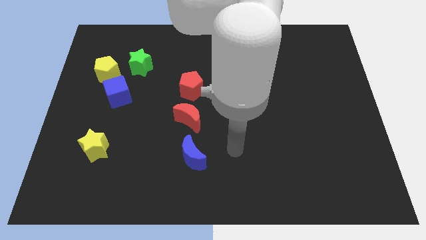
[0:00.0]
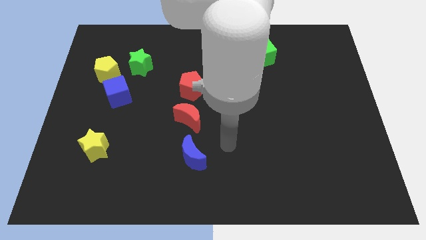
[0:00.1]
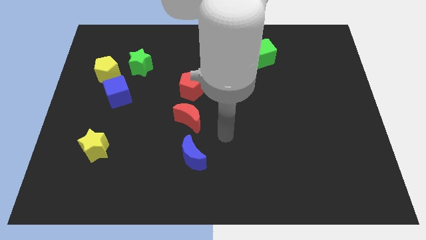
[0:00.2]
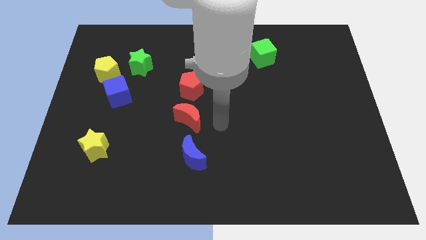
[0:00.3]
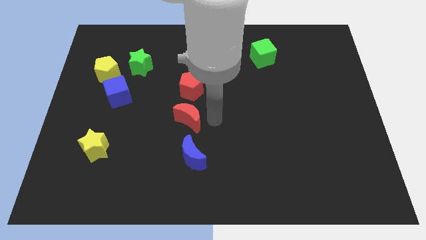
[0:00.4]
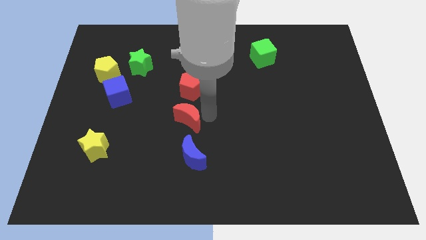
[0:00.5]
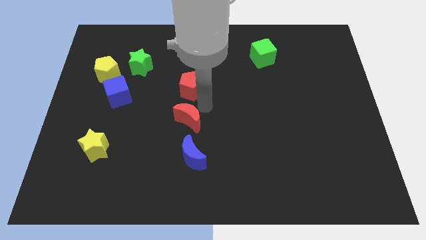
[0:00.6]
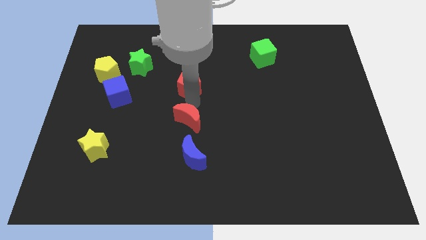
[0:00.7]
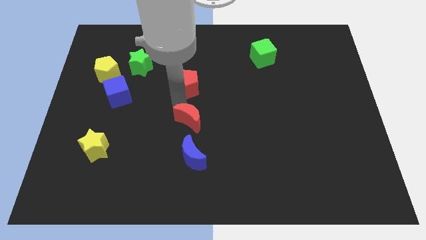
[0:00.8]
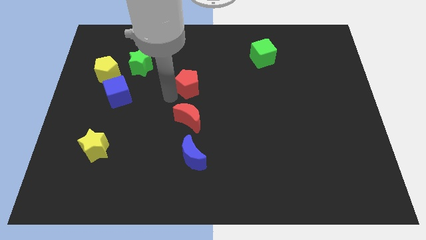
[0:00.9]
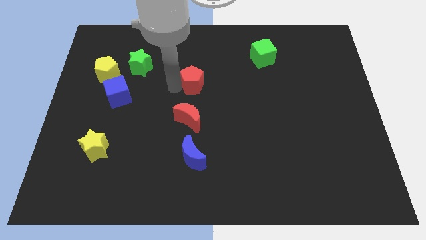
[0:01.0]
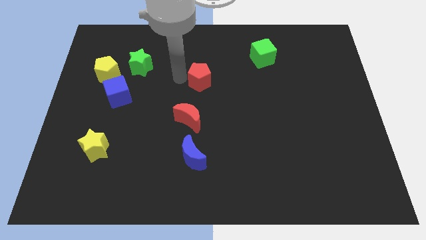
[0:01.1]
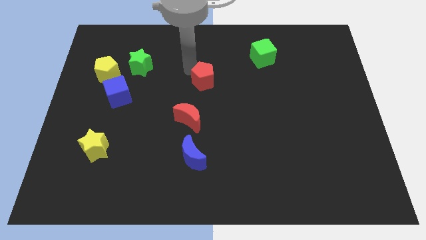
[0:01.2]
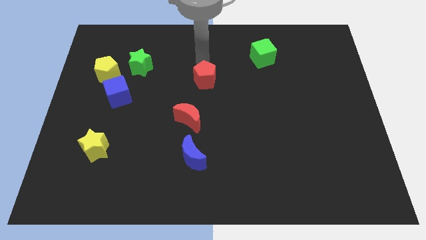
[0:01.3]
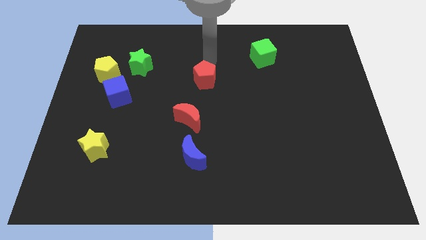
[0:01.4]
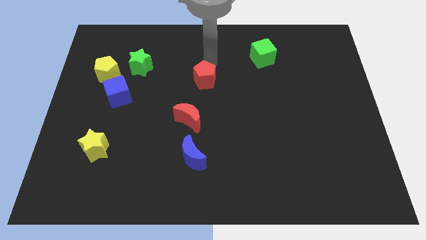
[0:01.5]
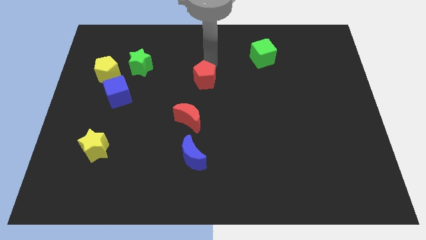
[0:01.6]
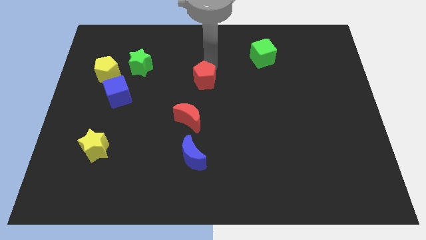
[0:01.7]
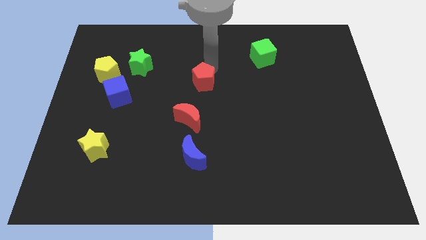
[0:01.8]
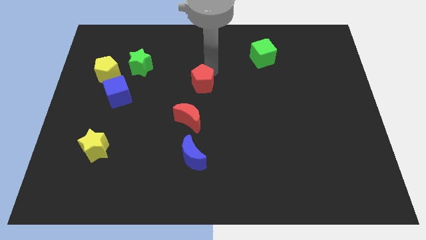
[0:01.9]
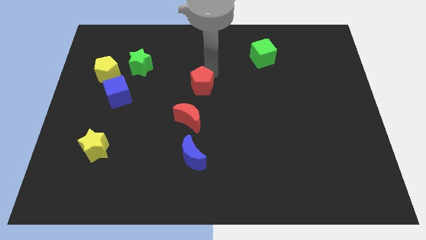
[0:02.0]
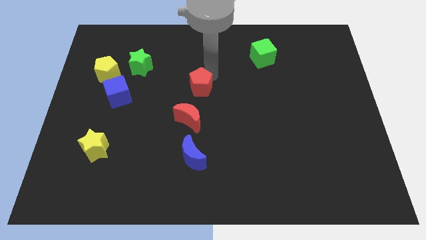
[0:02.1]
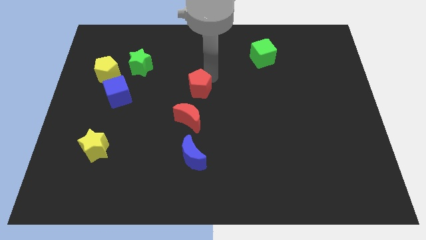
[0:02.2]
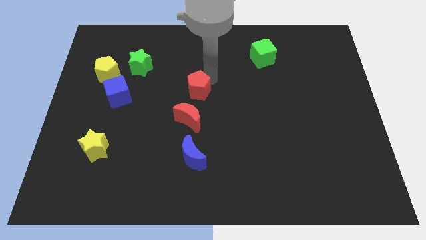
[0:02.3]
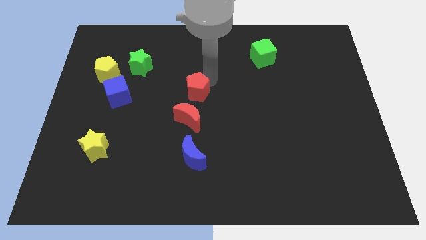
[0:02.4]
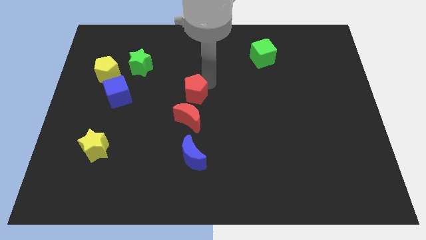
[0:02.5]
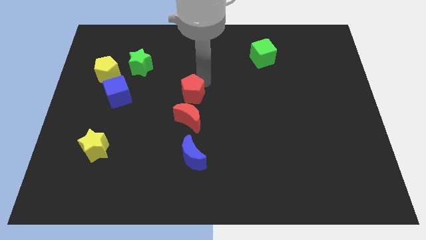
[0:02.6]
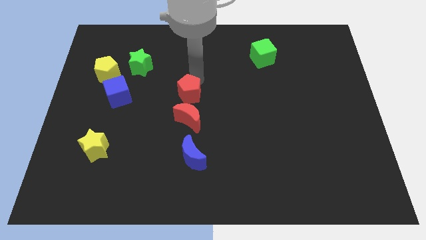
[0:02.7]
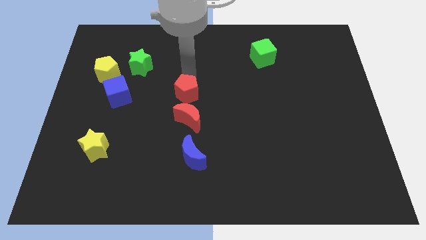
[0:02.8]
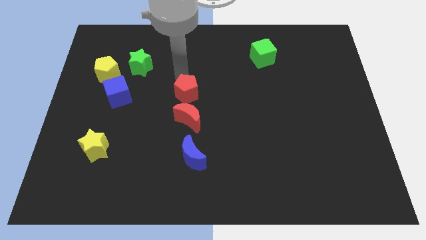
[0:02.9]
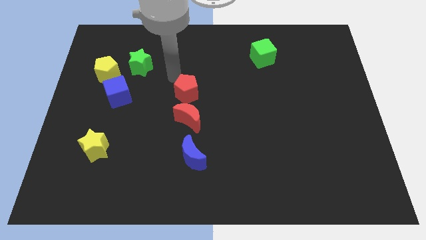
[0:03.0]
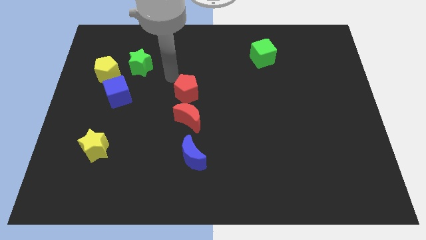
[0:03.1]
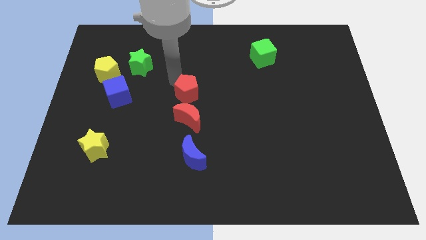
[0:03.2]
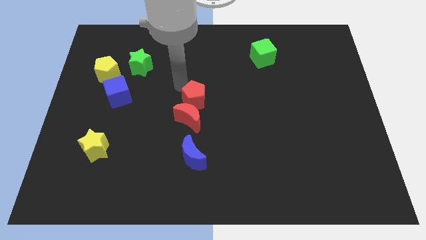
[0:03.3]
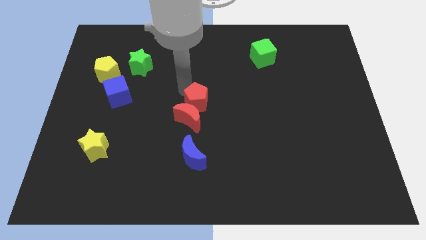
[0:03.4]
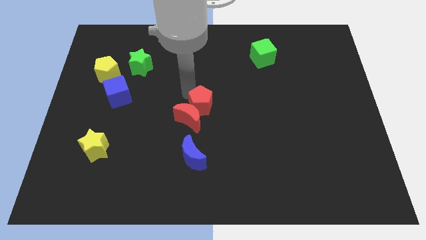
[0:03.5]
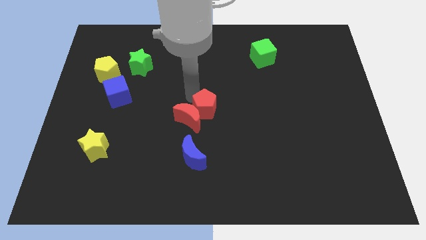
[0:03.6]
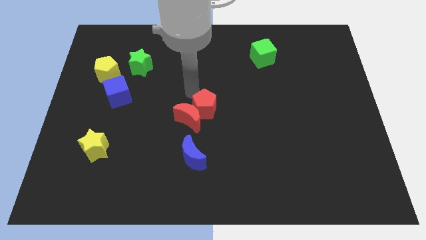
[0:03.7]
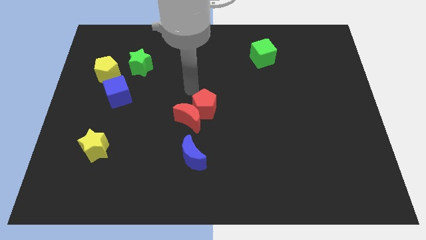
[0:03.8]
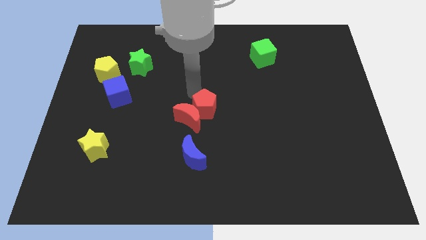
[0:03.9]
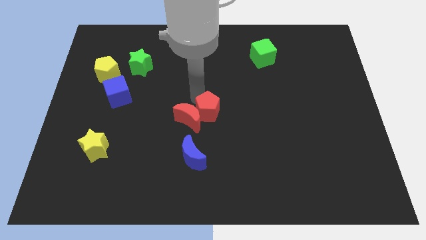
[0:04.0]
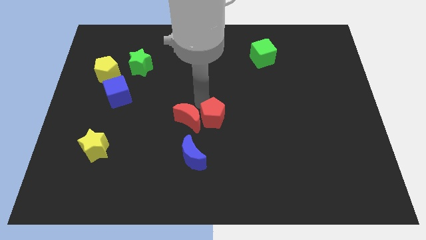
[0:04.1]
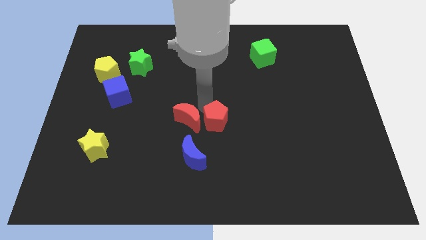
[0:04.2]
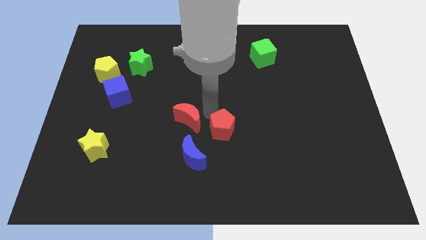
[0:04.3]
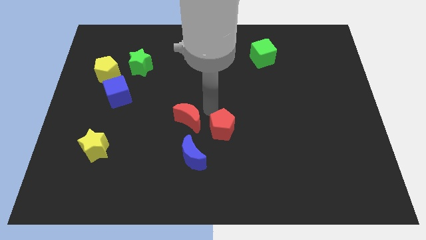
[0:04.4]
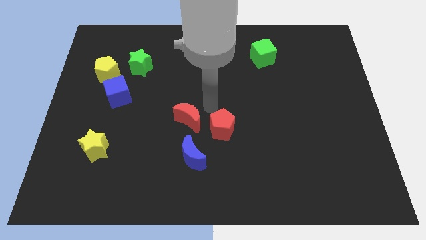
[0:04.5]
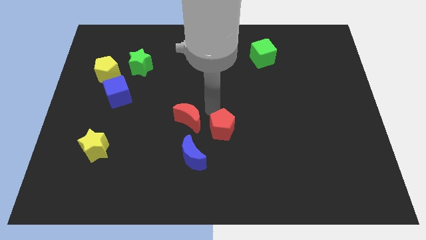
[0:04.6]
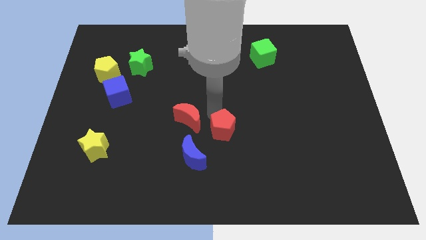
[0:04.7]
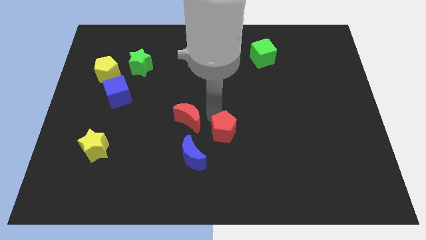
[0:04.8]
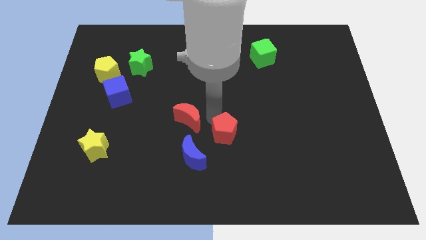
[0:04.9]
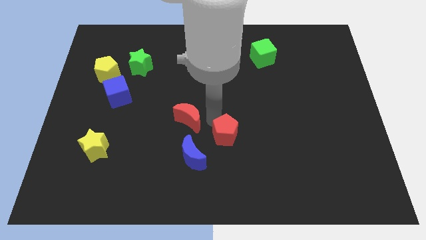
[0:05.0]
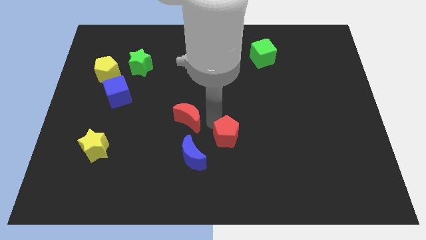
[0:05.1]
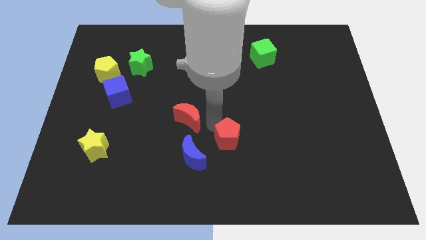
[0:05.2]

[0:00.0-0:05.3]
move the red pentagon to the right side of the blue moon
